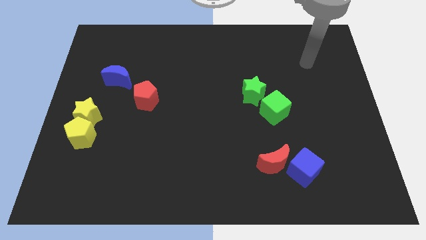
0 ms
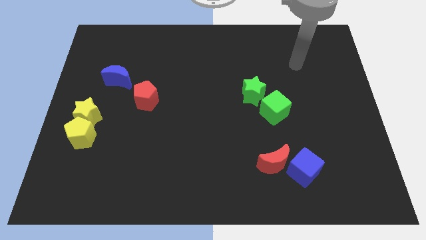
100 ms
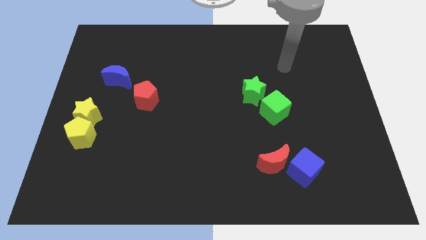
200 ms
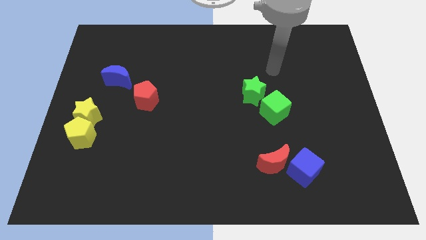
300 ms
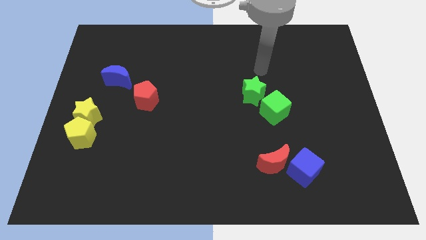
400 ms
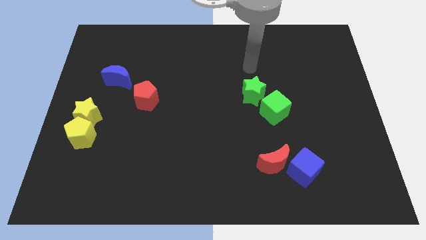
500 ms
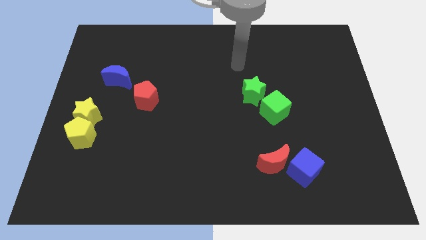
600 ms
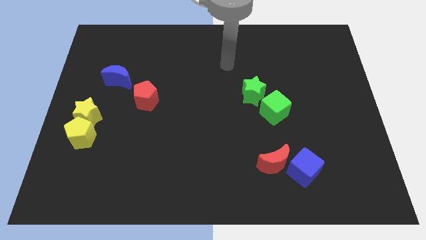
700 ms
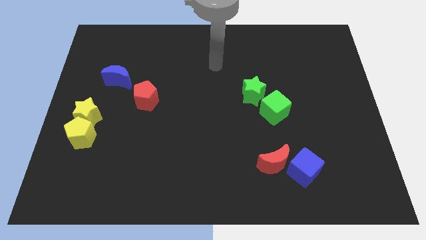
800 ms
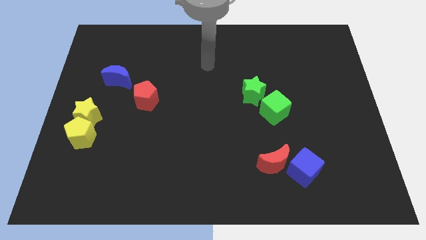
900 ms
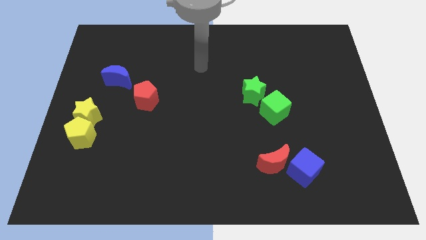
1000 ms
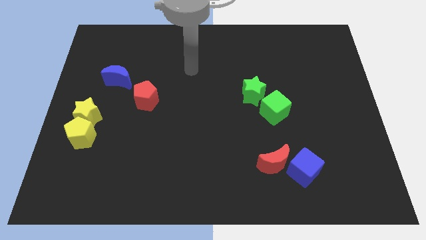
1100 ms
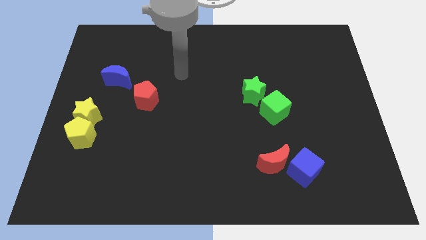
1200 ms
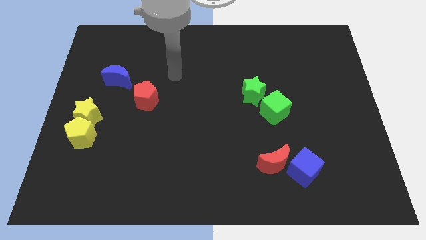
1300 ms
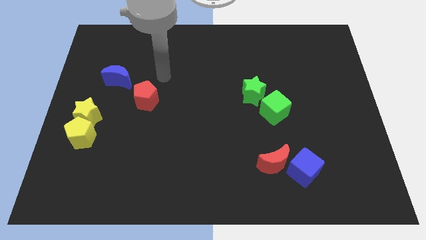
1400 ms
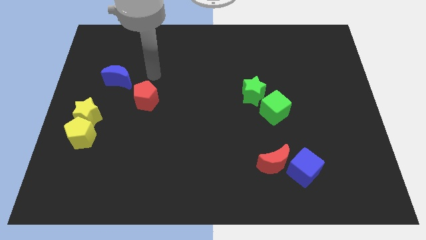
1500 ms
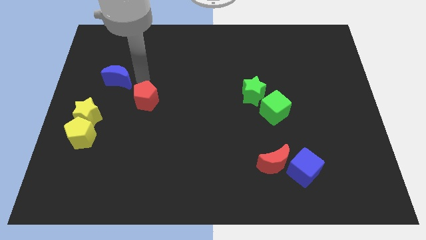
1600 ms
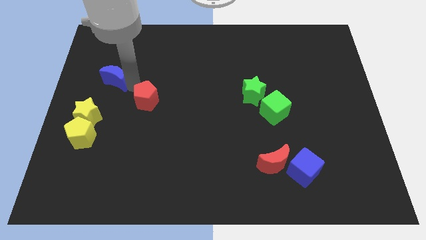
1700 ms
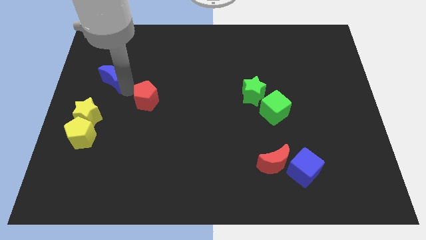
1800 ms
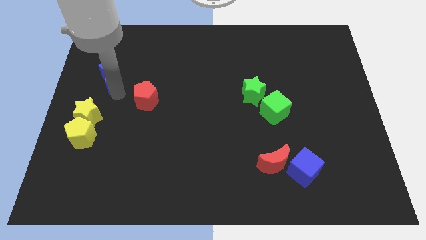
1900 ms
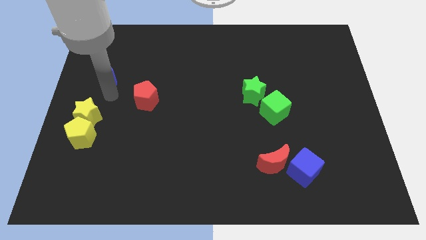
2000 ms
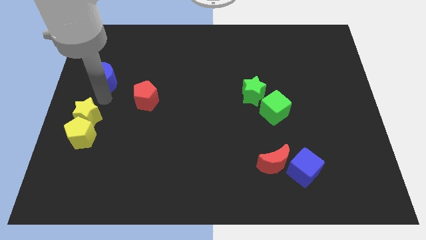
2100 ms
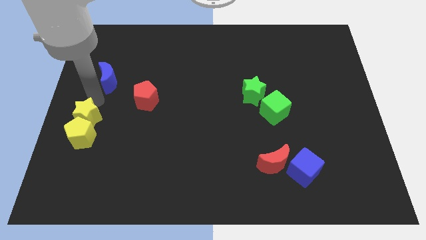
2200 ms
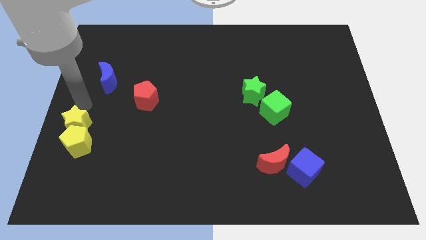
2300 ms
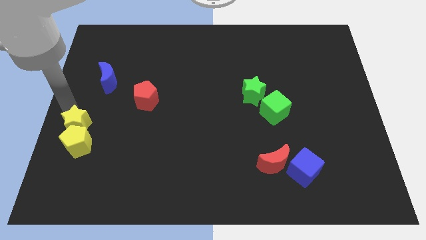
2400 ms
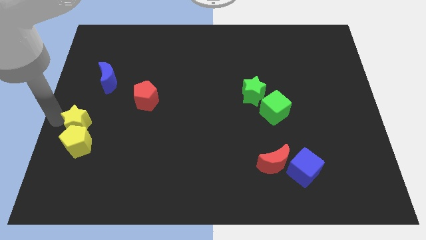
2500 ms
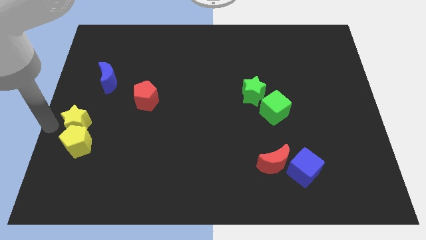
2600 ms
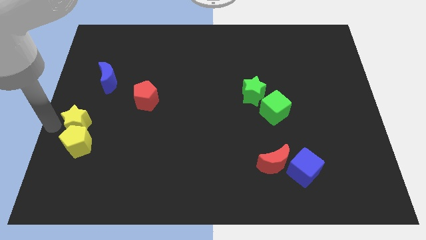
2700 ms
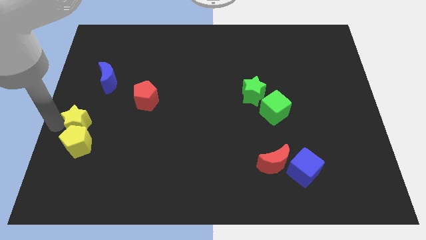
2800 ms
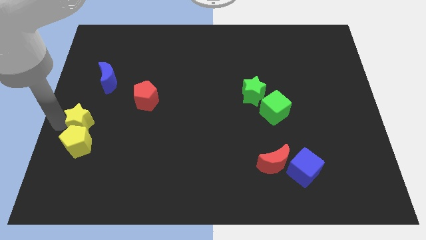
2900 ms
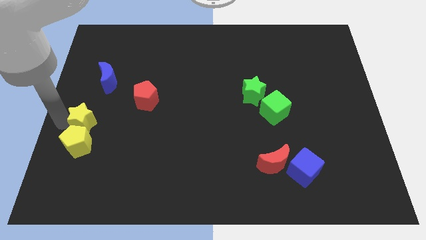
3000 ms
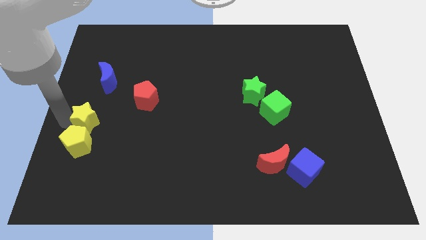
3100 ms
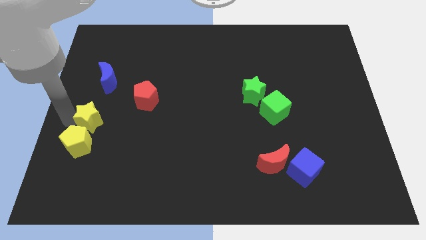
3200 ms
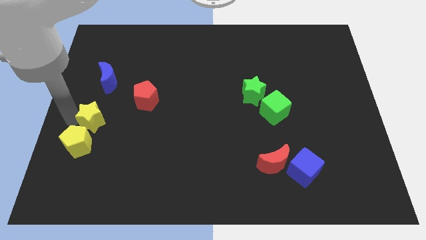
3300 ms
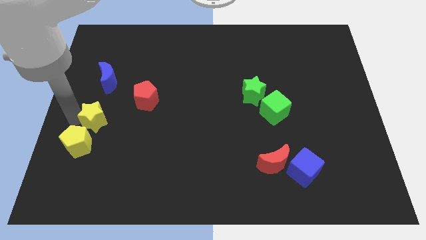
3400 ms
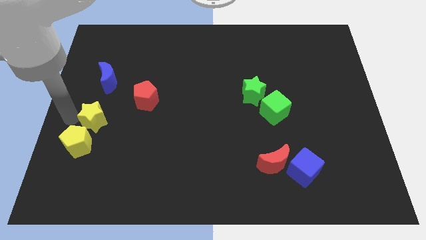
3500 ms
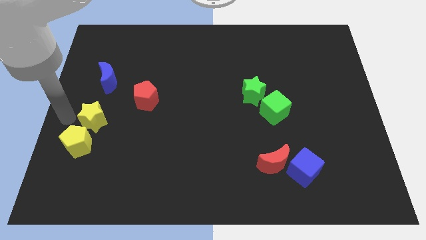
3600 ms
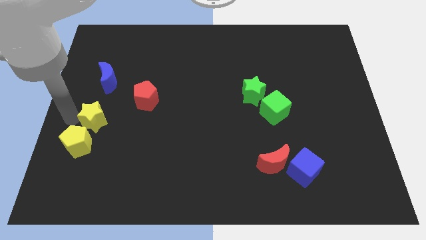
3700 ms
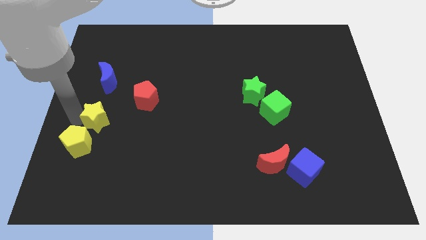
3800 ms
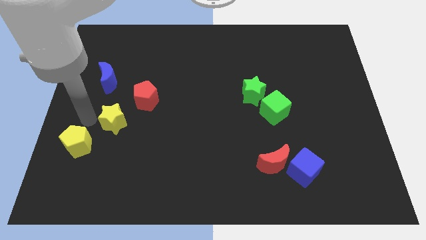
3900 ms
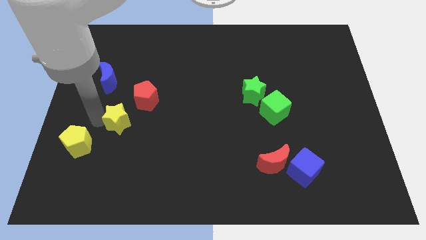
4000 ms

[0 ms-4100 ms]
slide the yellow star a little right

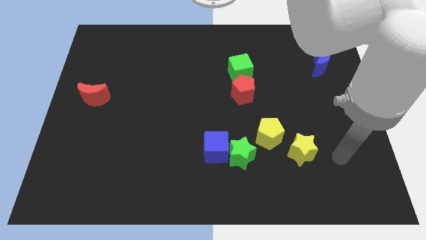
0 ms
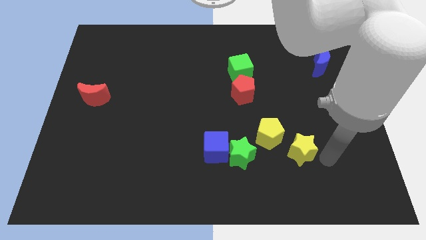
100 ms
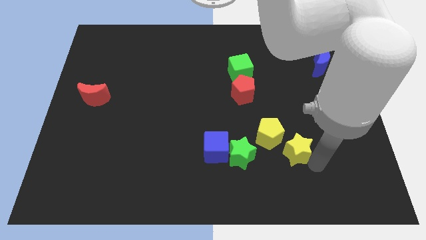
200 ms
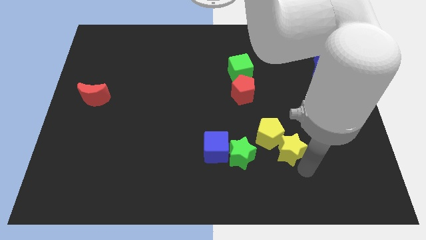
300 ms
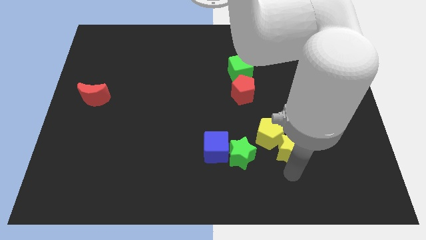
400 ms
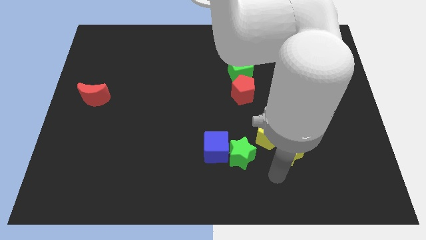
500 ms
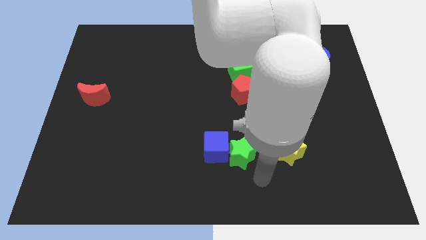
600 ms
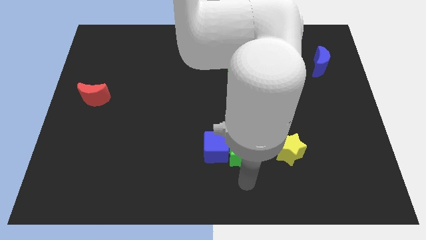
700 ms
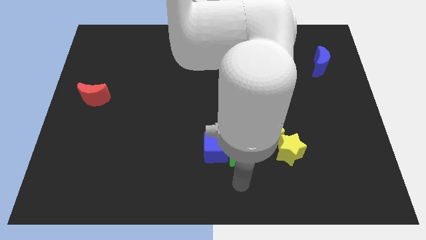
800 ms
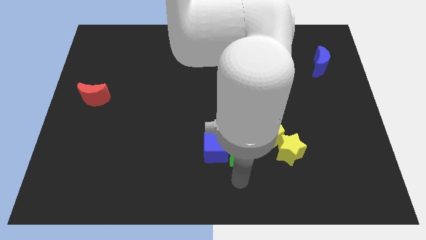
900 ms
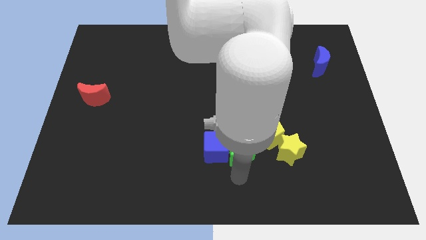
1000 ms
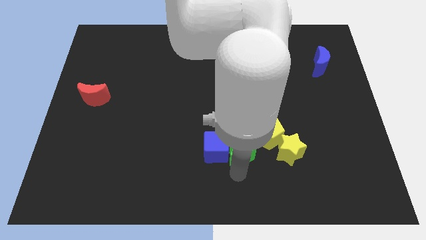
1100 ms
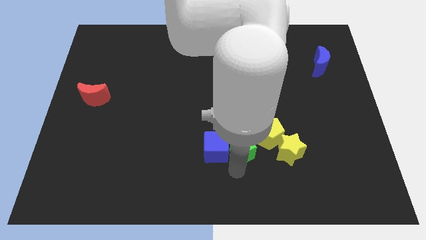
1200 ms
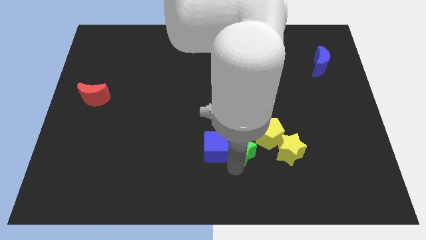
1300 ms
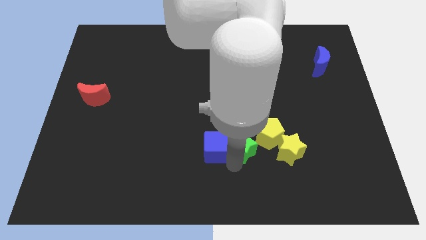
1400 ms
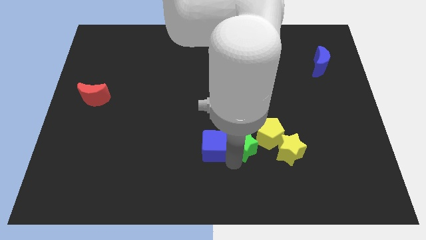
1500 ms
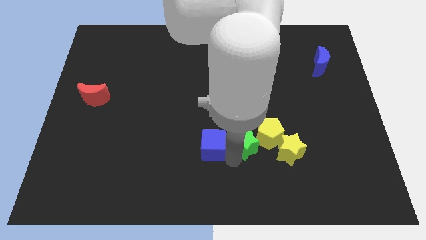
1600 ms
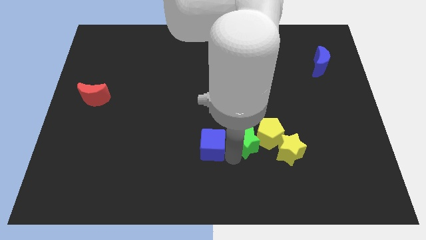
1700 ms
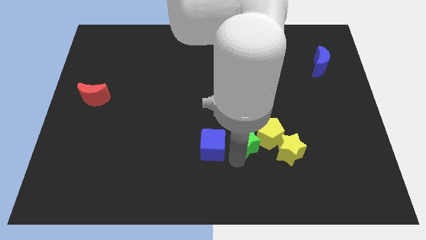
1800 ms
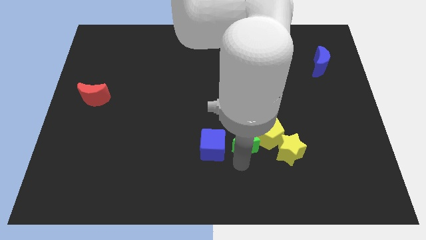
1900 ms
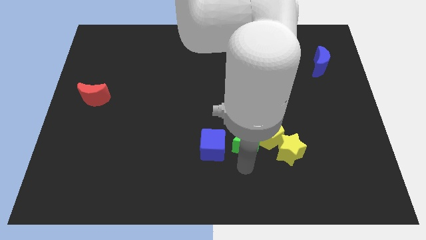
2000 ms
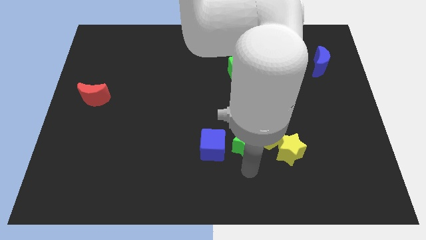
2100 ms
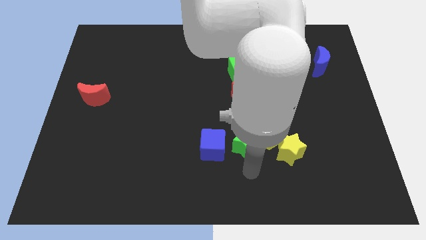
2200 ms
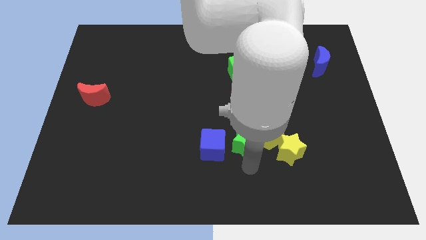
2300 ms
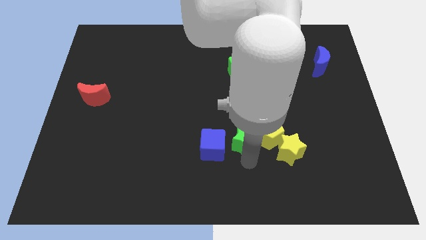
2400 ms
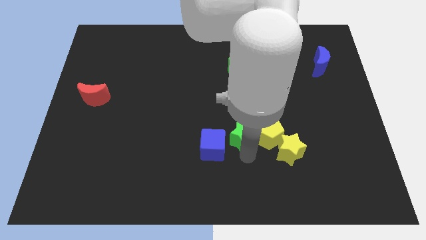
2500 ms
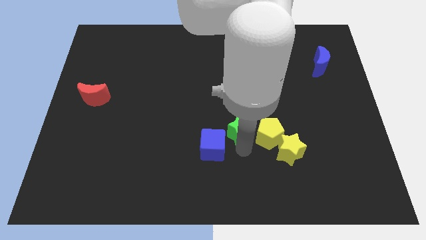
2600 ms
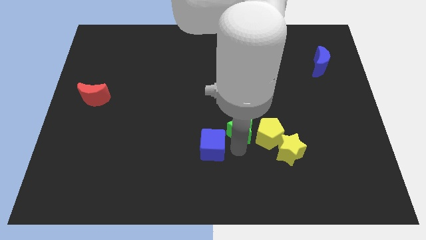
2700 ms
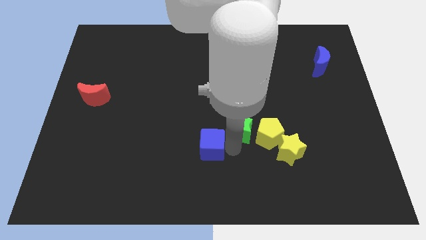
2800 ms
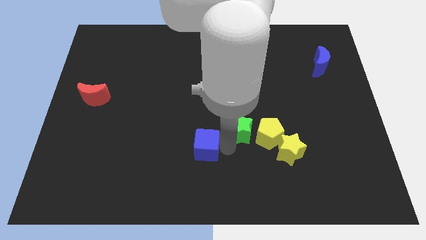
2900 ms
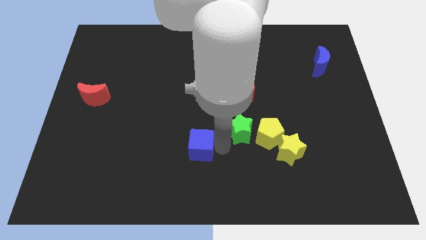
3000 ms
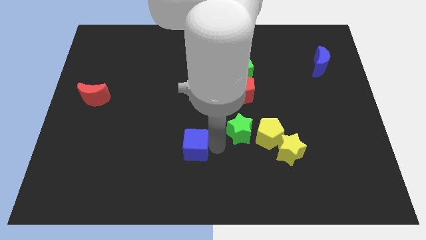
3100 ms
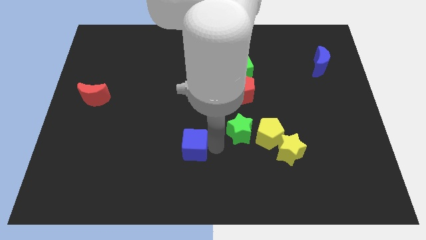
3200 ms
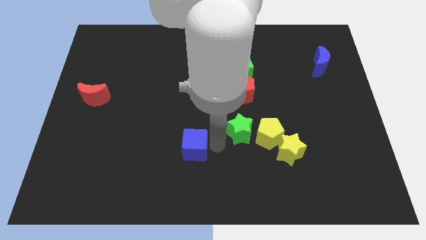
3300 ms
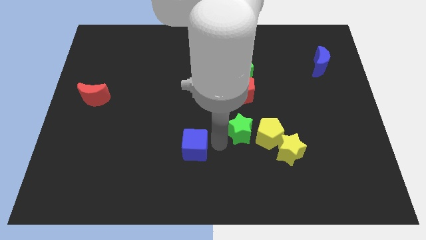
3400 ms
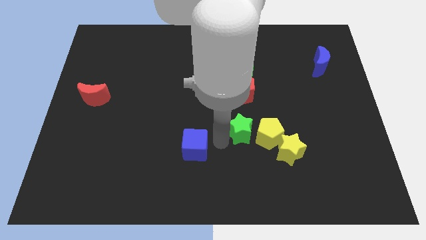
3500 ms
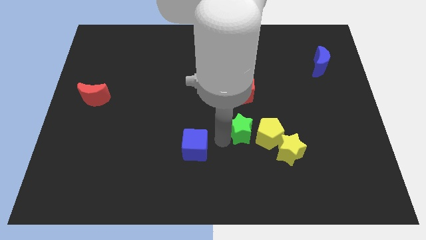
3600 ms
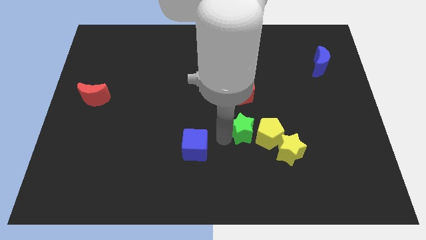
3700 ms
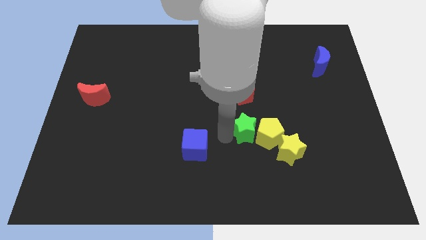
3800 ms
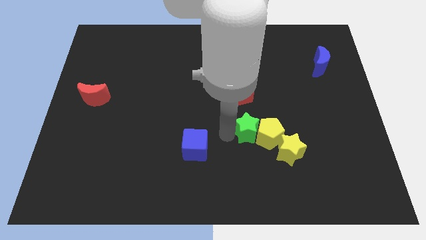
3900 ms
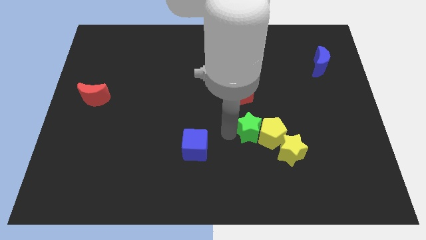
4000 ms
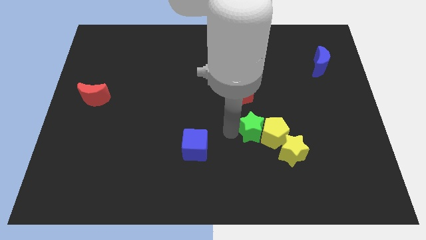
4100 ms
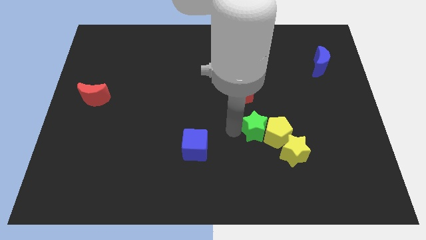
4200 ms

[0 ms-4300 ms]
push the green star a little upwards and then right
